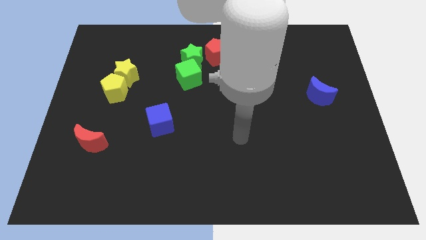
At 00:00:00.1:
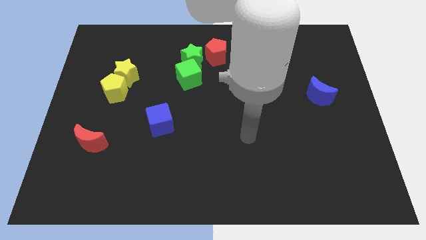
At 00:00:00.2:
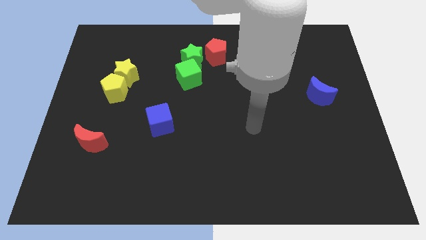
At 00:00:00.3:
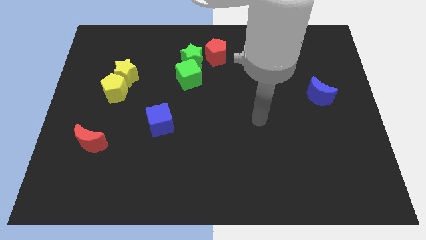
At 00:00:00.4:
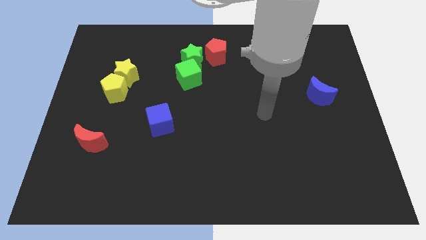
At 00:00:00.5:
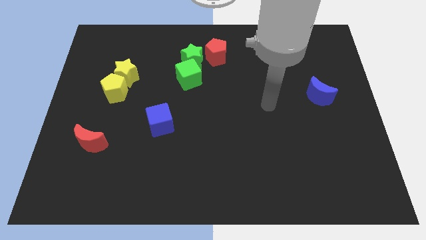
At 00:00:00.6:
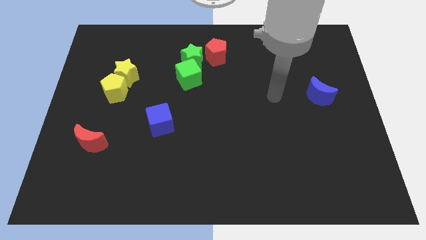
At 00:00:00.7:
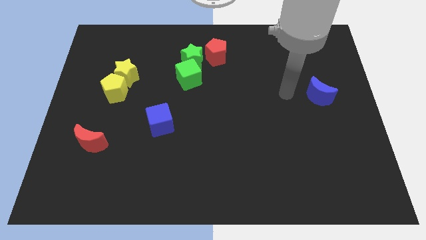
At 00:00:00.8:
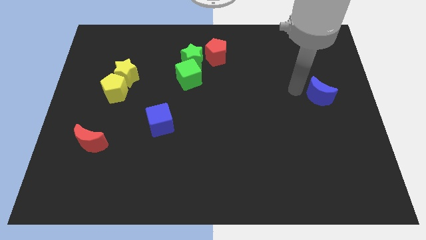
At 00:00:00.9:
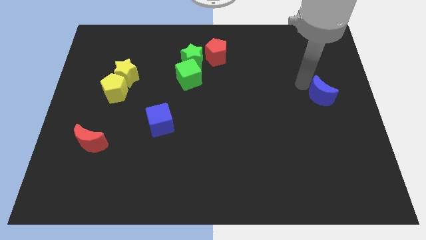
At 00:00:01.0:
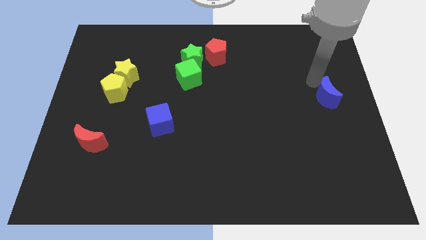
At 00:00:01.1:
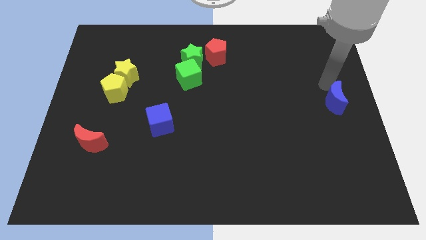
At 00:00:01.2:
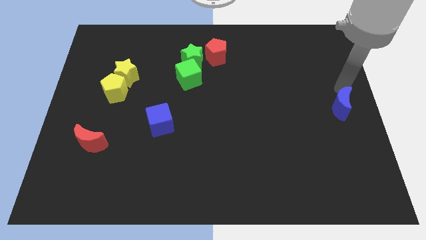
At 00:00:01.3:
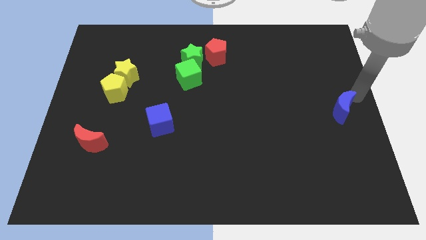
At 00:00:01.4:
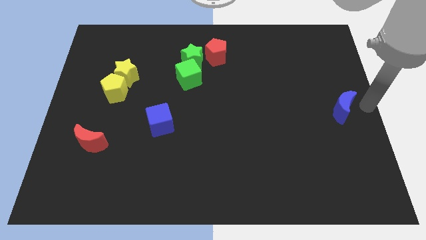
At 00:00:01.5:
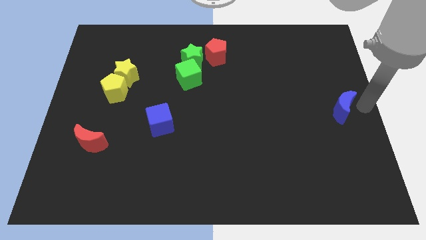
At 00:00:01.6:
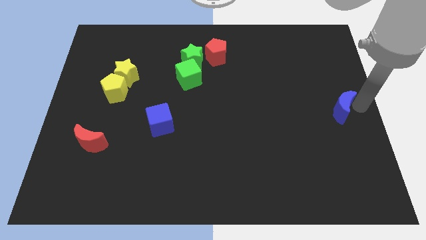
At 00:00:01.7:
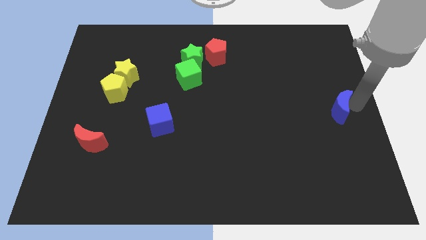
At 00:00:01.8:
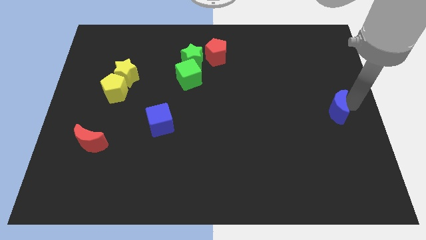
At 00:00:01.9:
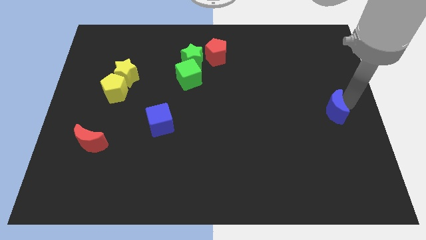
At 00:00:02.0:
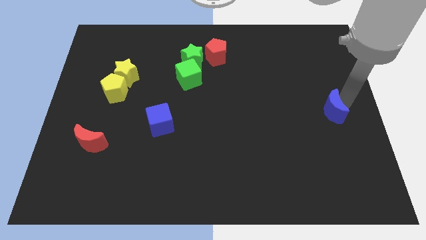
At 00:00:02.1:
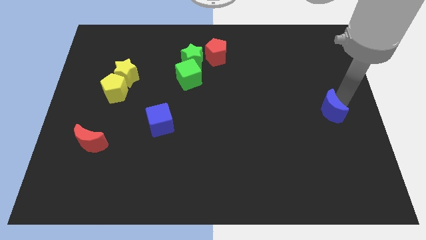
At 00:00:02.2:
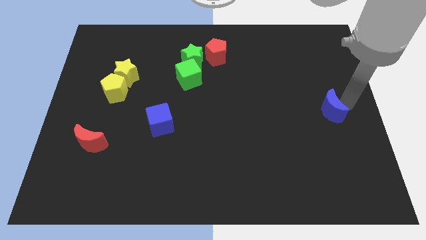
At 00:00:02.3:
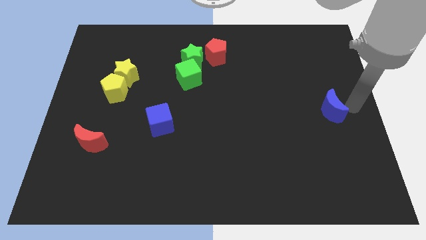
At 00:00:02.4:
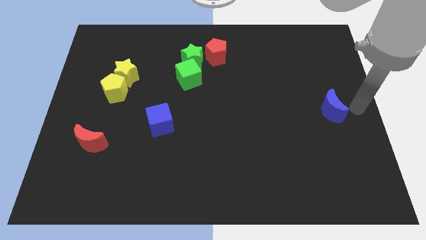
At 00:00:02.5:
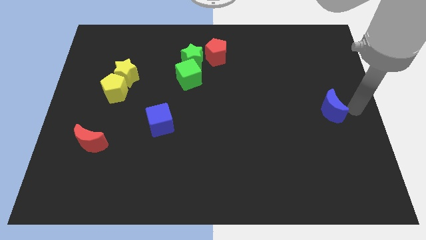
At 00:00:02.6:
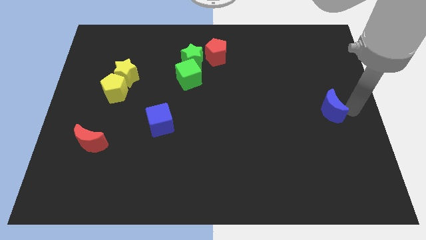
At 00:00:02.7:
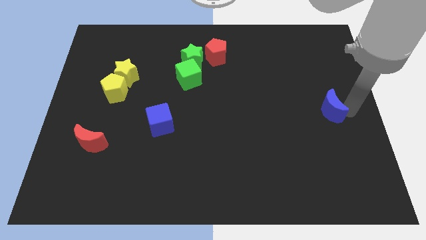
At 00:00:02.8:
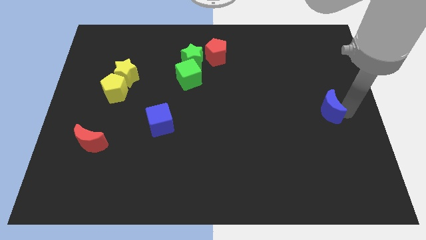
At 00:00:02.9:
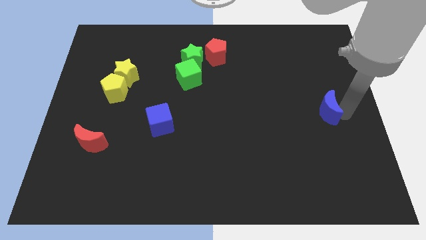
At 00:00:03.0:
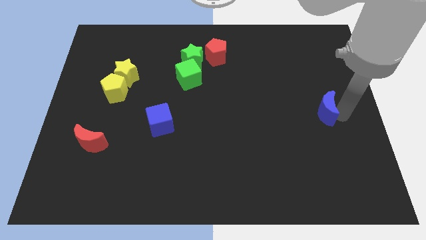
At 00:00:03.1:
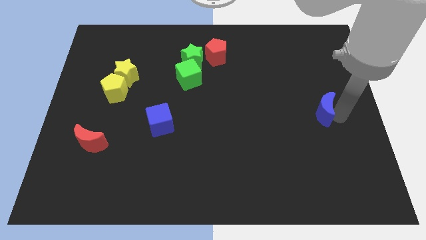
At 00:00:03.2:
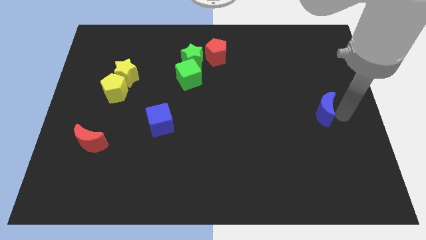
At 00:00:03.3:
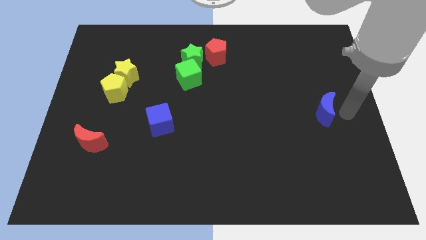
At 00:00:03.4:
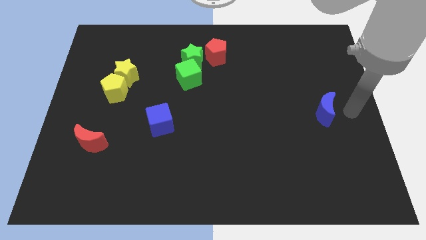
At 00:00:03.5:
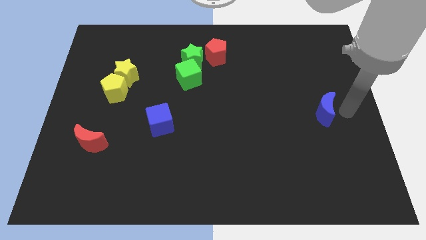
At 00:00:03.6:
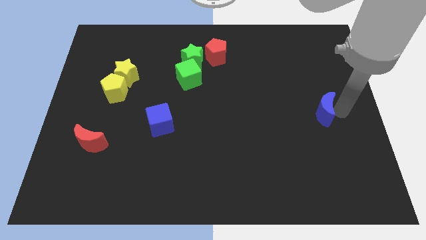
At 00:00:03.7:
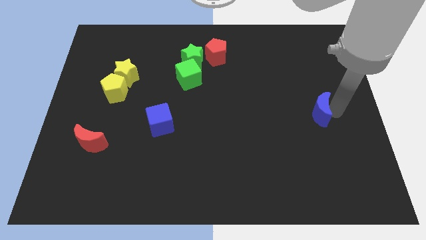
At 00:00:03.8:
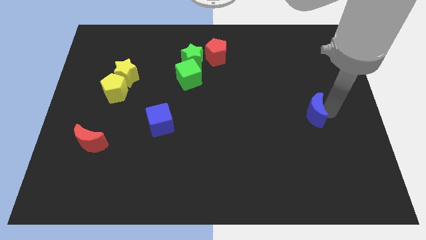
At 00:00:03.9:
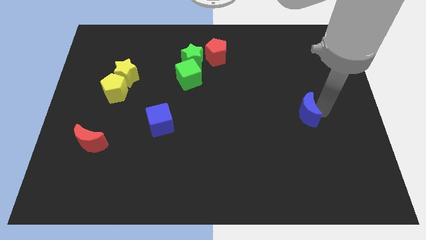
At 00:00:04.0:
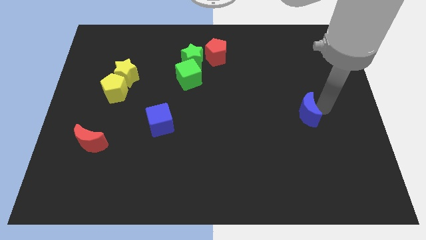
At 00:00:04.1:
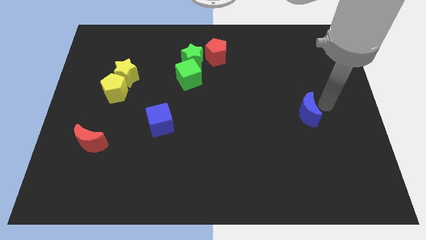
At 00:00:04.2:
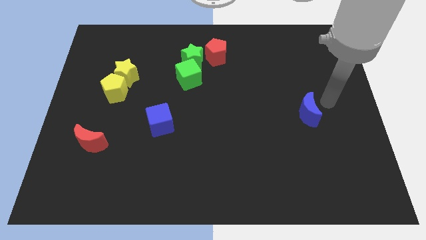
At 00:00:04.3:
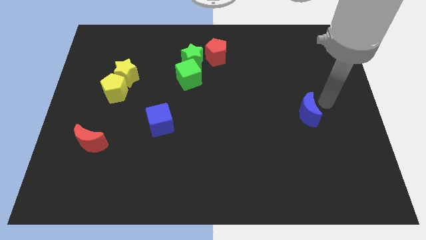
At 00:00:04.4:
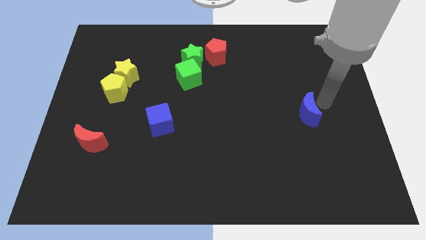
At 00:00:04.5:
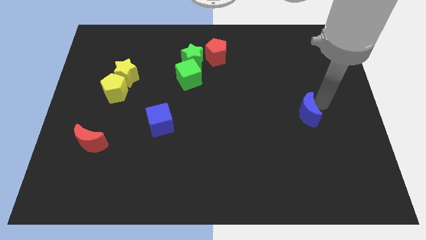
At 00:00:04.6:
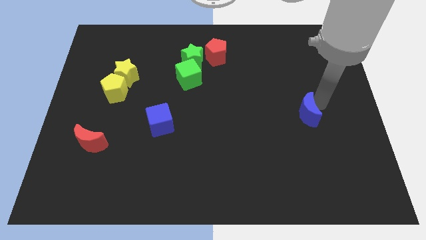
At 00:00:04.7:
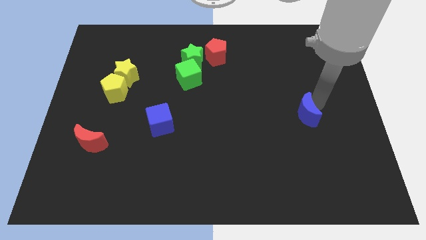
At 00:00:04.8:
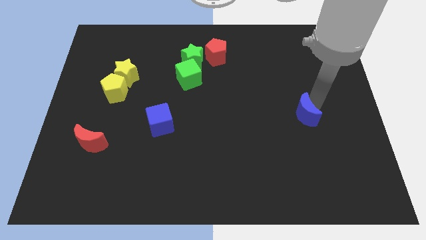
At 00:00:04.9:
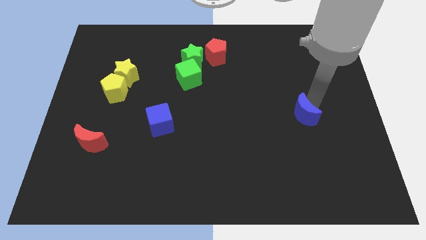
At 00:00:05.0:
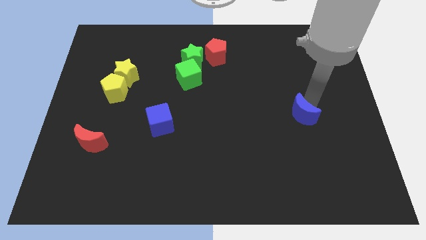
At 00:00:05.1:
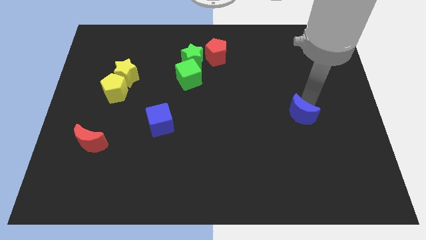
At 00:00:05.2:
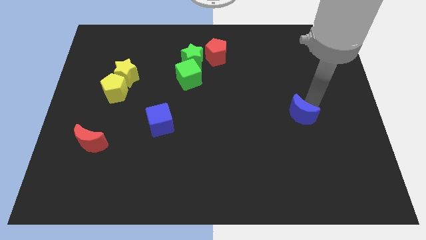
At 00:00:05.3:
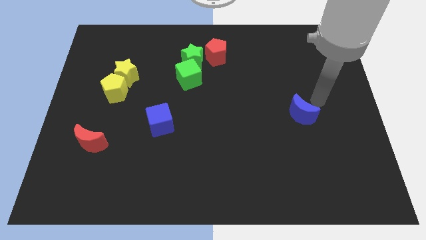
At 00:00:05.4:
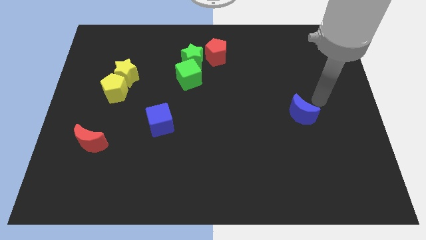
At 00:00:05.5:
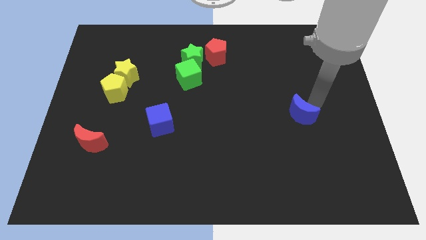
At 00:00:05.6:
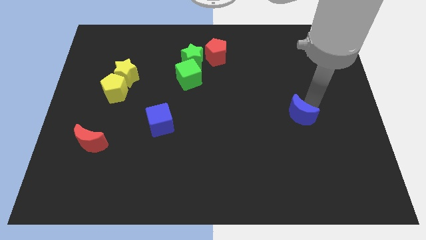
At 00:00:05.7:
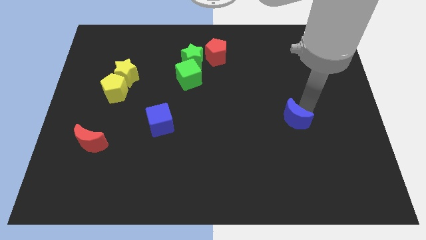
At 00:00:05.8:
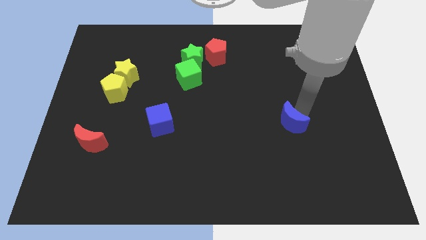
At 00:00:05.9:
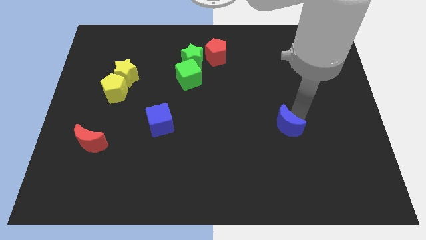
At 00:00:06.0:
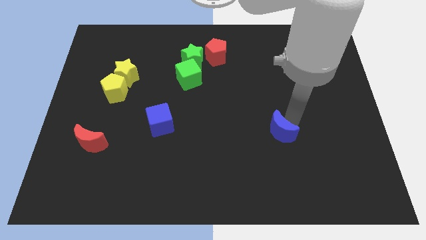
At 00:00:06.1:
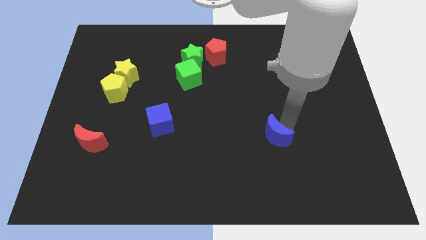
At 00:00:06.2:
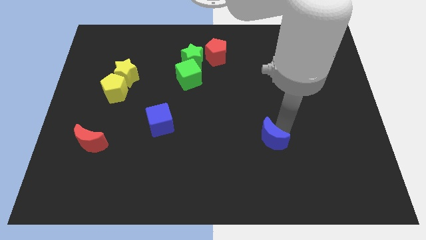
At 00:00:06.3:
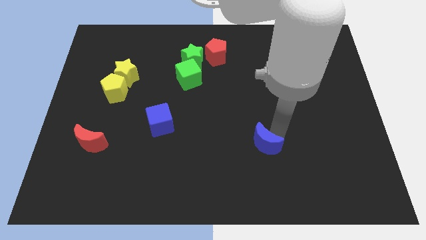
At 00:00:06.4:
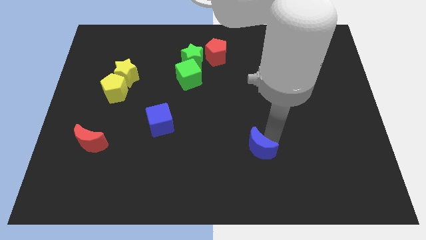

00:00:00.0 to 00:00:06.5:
push the blue moon diagonally down and to the left

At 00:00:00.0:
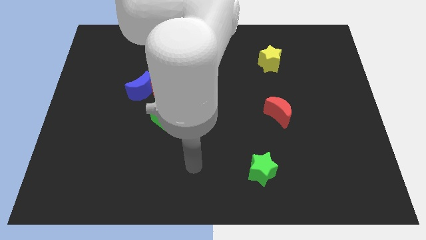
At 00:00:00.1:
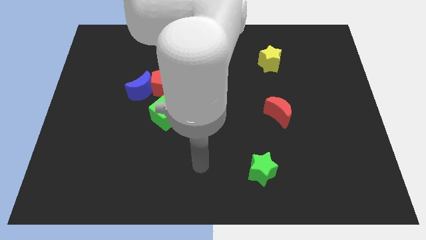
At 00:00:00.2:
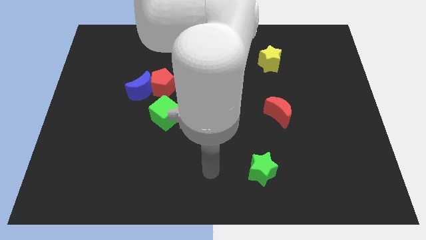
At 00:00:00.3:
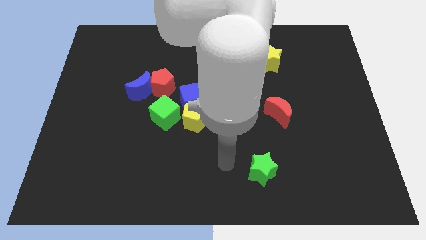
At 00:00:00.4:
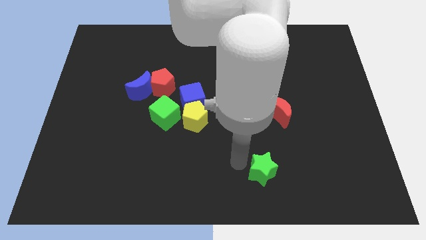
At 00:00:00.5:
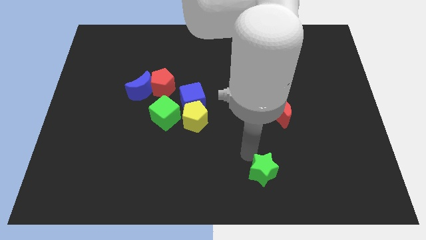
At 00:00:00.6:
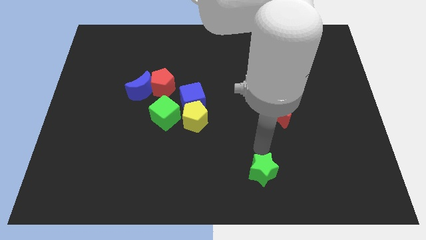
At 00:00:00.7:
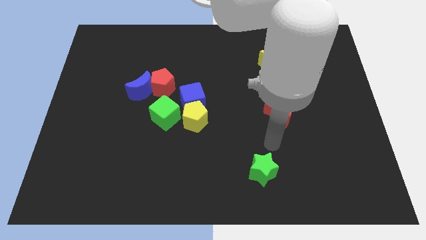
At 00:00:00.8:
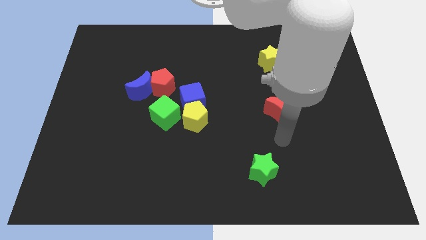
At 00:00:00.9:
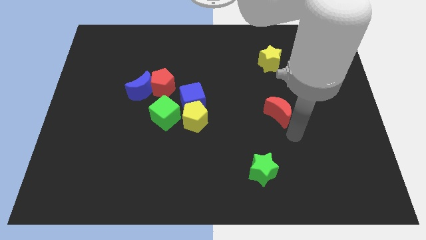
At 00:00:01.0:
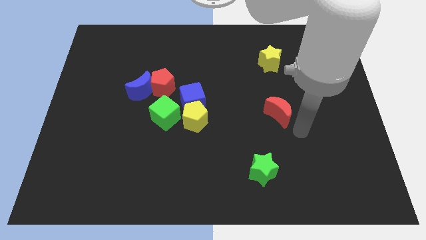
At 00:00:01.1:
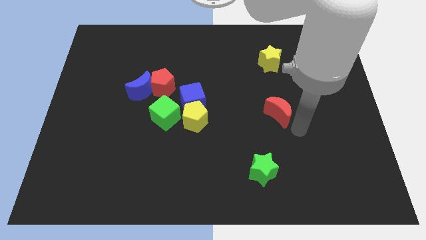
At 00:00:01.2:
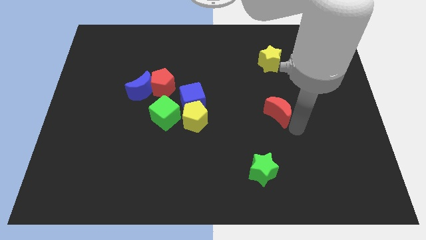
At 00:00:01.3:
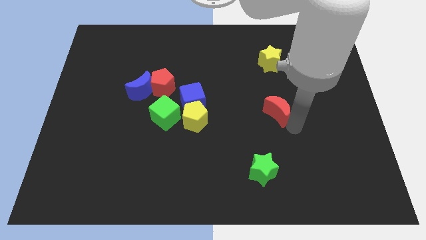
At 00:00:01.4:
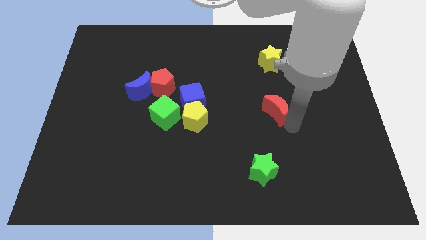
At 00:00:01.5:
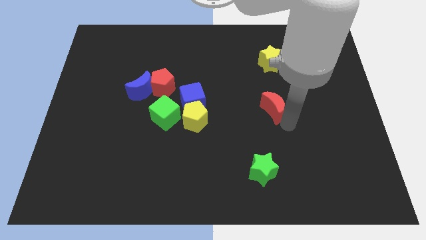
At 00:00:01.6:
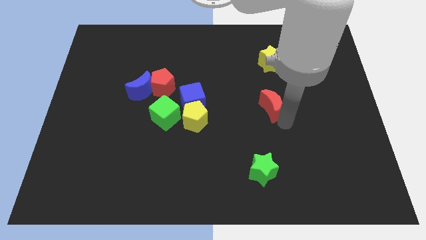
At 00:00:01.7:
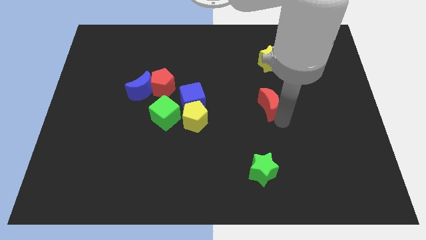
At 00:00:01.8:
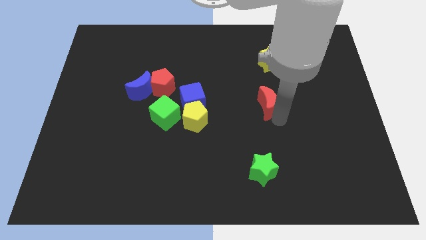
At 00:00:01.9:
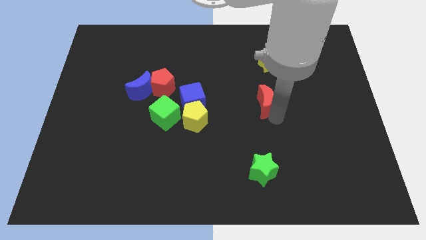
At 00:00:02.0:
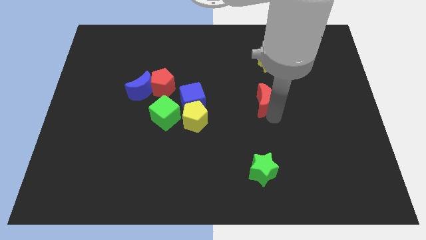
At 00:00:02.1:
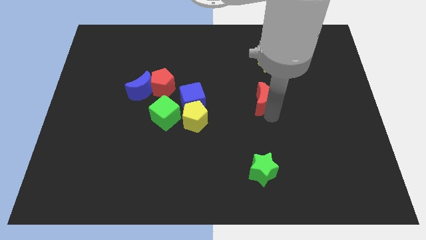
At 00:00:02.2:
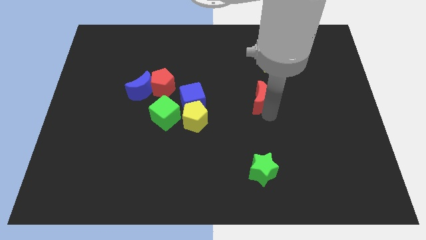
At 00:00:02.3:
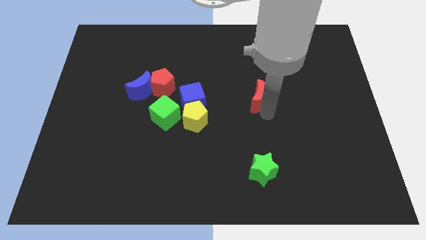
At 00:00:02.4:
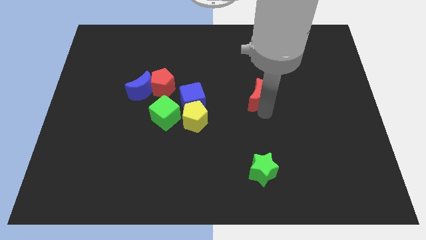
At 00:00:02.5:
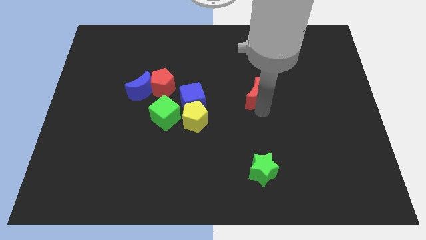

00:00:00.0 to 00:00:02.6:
move the red moon somewhat up and then to the left
